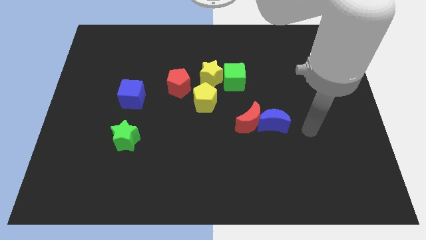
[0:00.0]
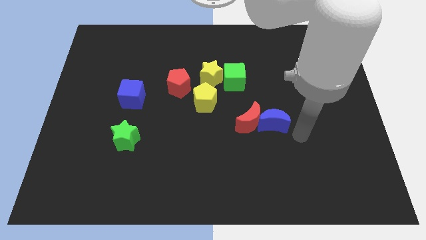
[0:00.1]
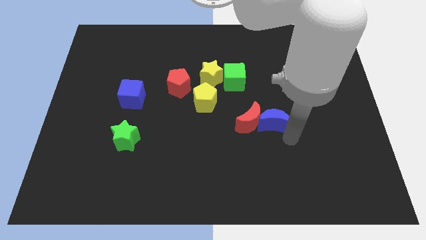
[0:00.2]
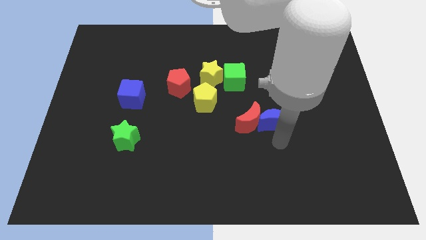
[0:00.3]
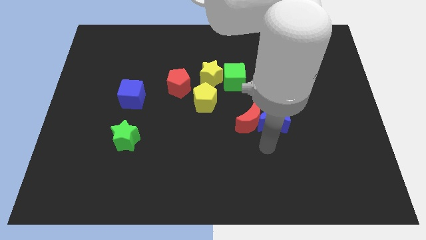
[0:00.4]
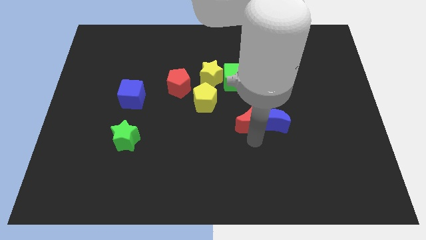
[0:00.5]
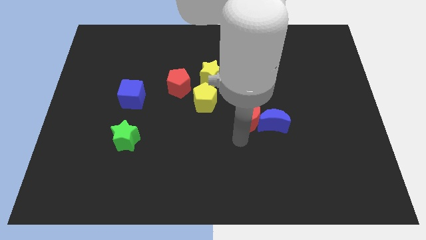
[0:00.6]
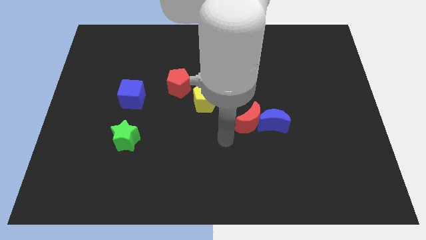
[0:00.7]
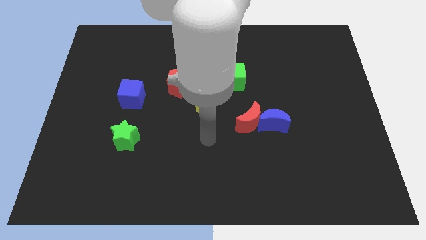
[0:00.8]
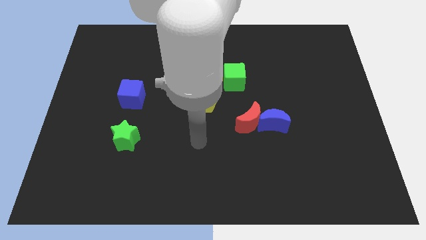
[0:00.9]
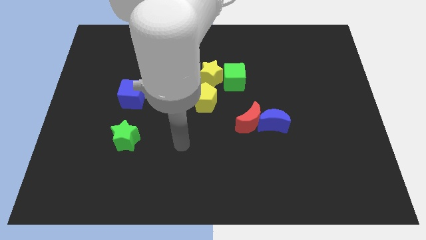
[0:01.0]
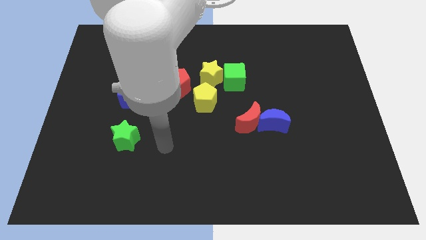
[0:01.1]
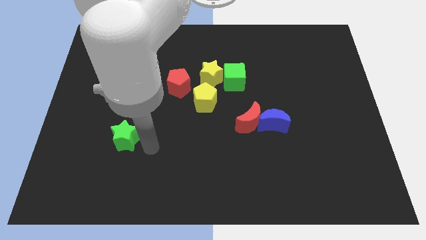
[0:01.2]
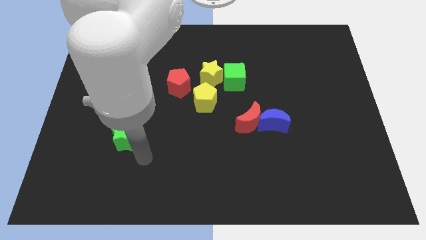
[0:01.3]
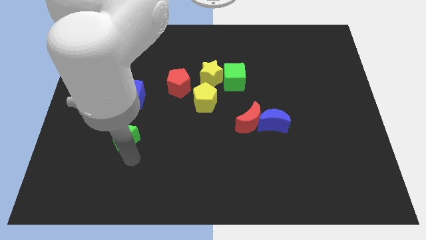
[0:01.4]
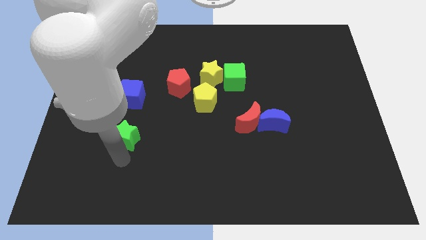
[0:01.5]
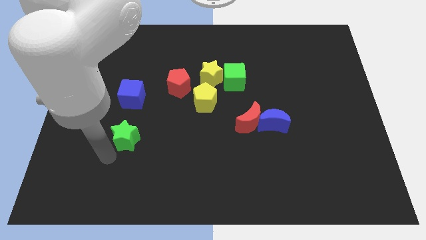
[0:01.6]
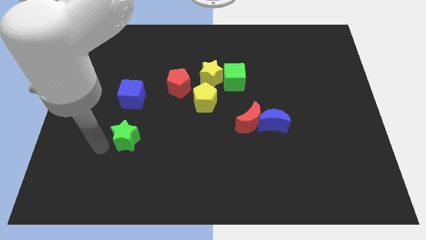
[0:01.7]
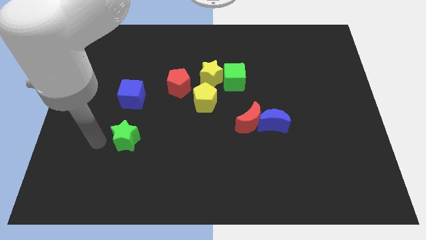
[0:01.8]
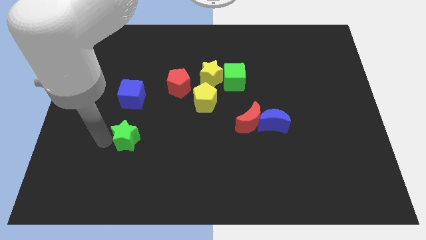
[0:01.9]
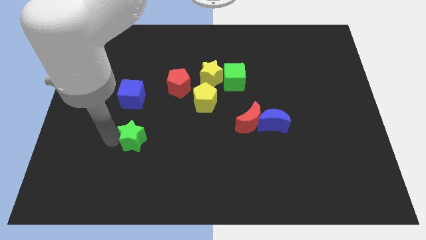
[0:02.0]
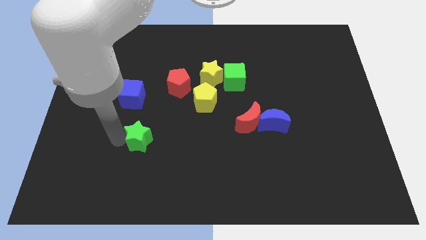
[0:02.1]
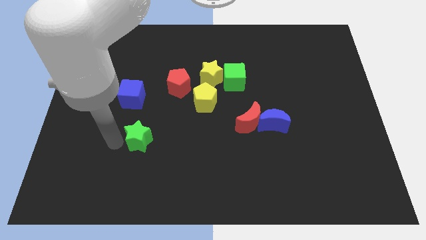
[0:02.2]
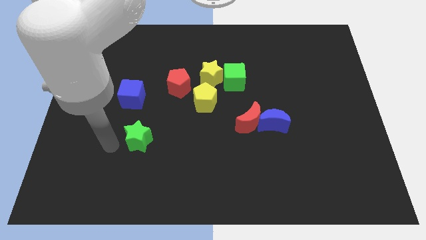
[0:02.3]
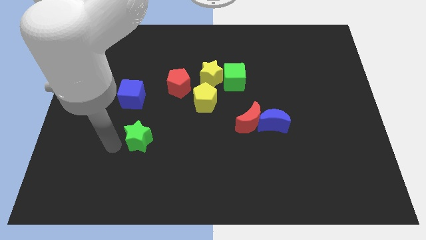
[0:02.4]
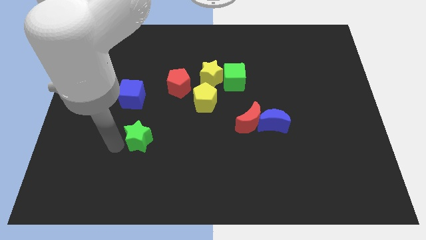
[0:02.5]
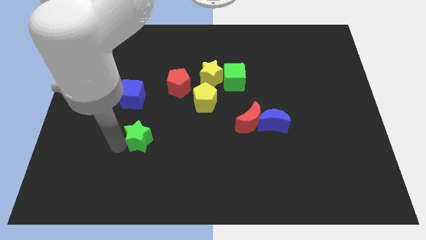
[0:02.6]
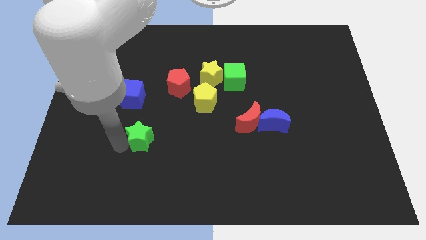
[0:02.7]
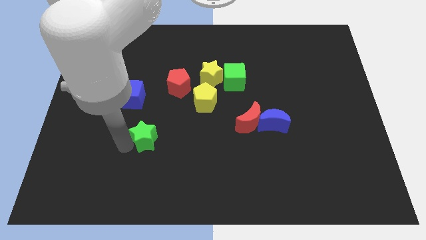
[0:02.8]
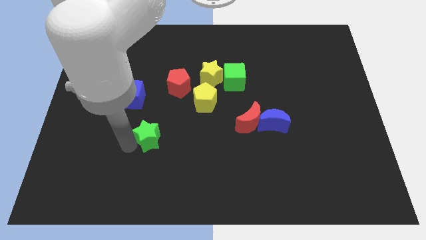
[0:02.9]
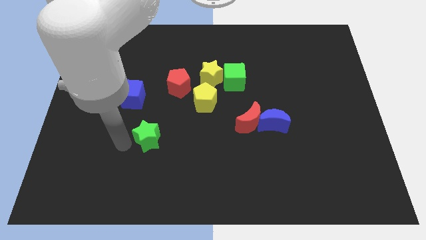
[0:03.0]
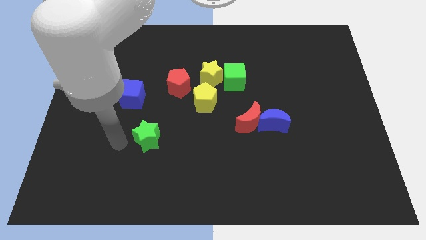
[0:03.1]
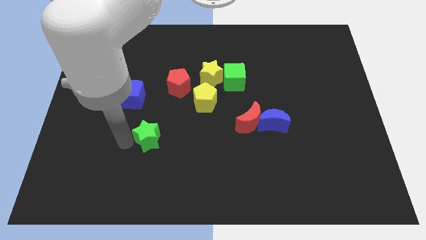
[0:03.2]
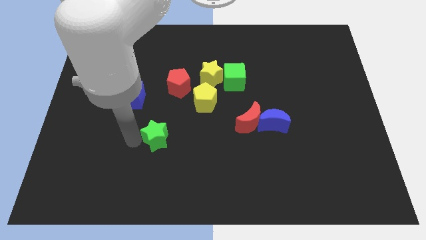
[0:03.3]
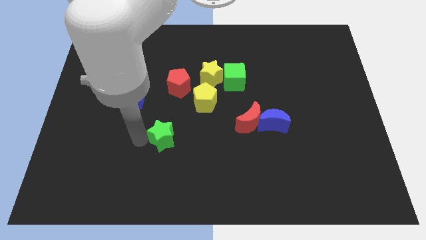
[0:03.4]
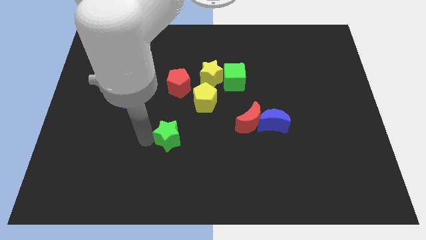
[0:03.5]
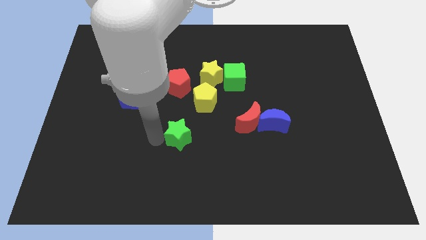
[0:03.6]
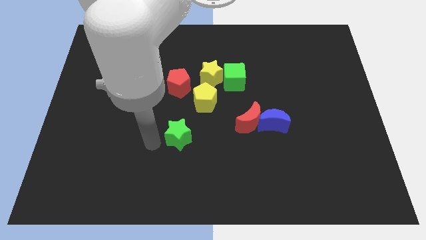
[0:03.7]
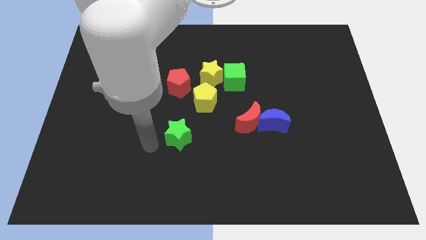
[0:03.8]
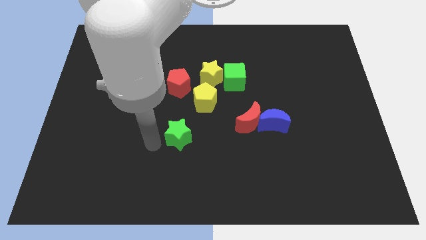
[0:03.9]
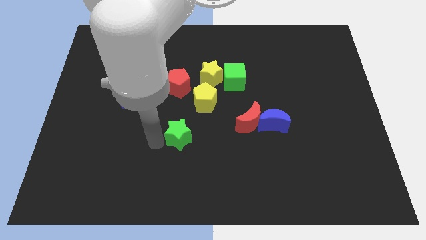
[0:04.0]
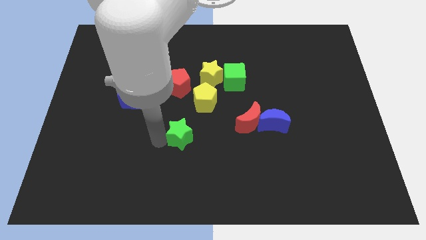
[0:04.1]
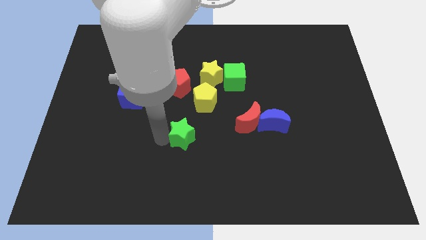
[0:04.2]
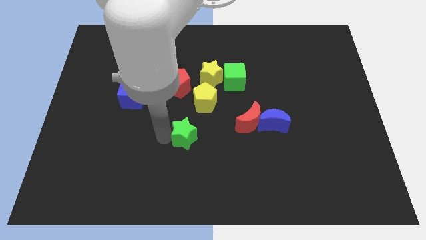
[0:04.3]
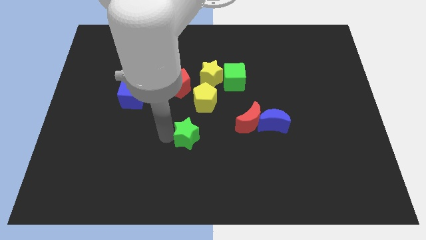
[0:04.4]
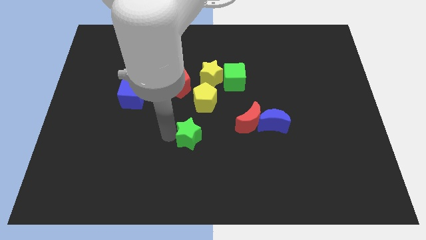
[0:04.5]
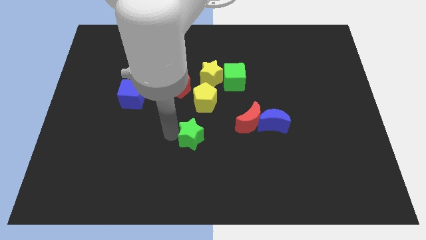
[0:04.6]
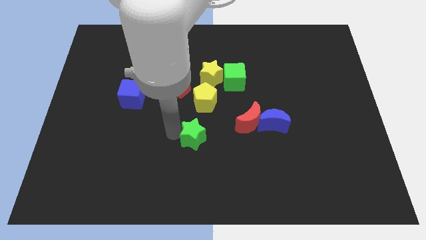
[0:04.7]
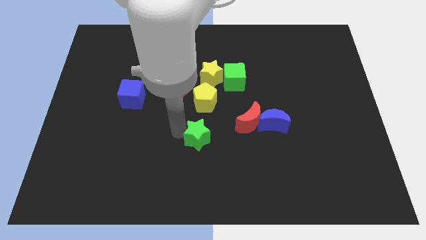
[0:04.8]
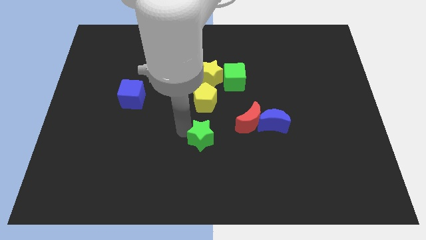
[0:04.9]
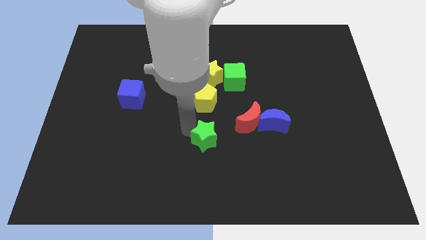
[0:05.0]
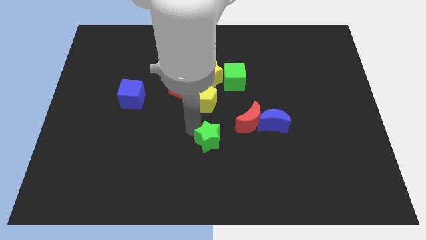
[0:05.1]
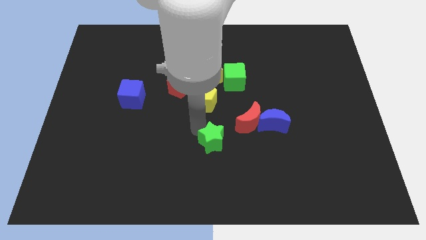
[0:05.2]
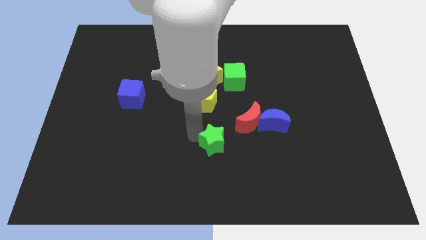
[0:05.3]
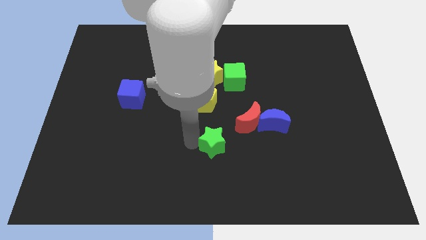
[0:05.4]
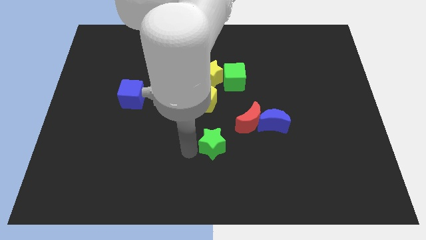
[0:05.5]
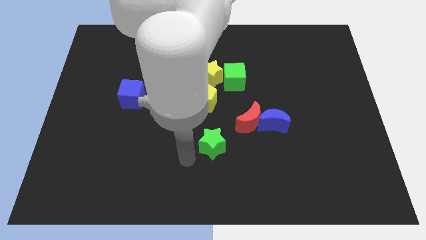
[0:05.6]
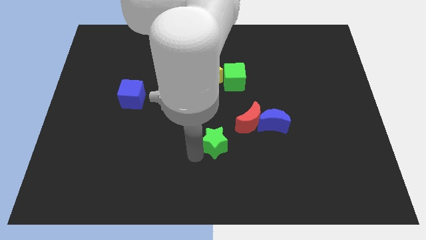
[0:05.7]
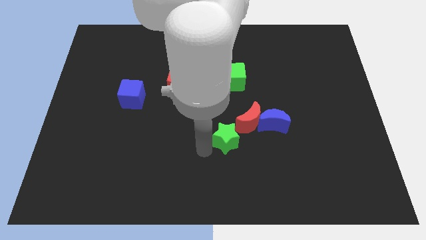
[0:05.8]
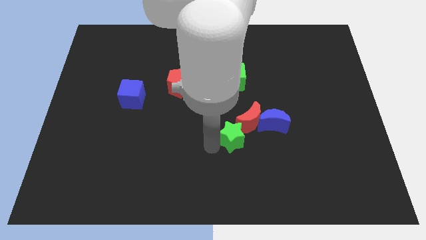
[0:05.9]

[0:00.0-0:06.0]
move the green star towards the red moon

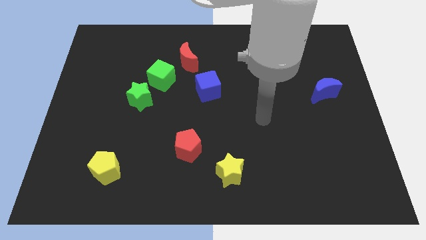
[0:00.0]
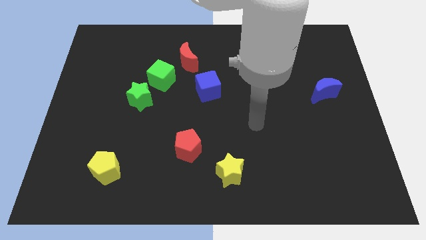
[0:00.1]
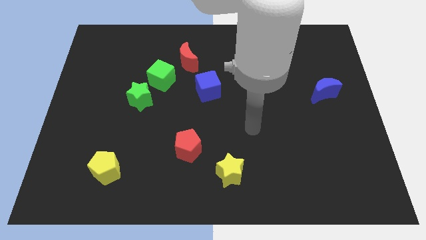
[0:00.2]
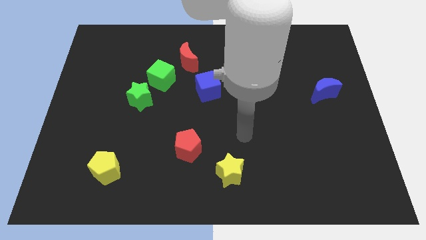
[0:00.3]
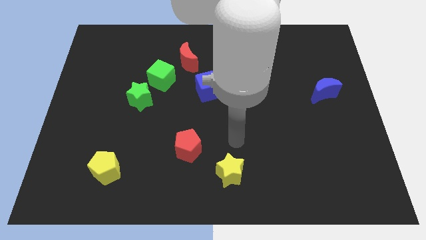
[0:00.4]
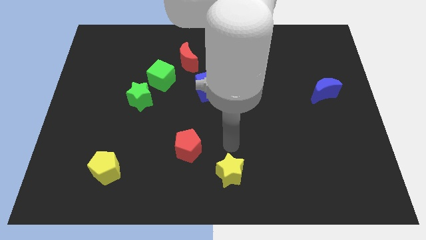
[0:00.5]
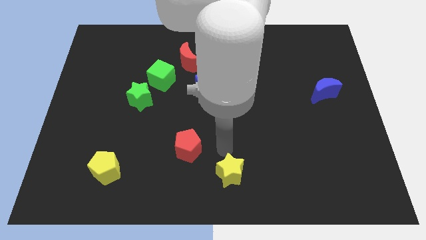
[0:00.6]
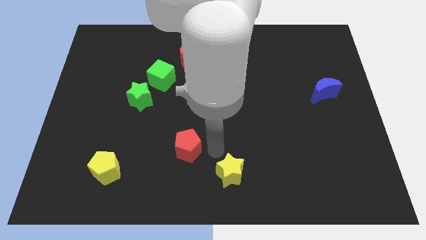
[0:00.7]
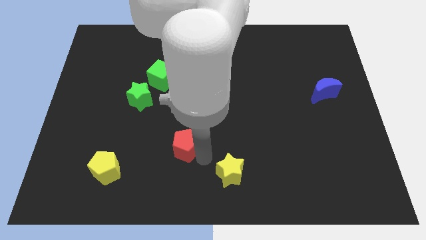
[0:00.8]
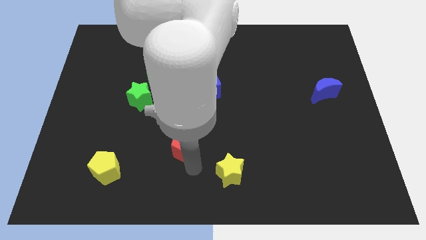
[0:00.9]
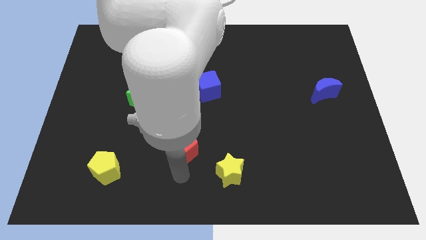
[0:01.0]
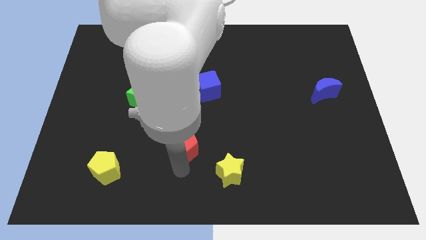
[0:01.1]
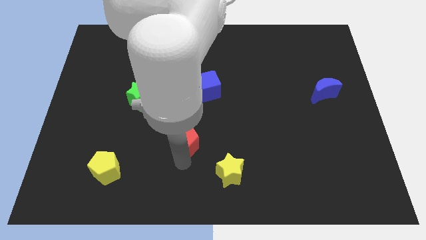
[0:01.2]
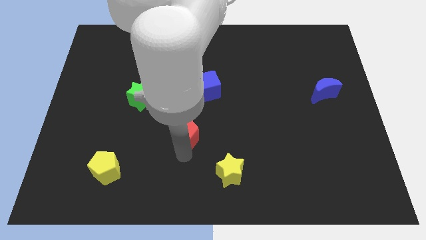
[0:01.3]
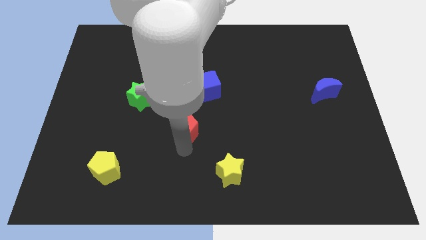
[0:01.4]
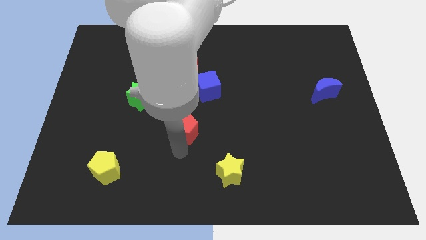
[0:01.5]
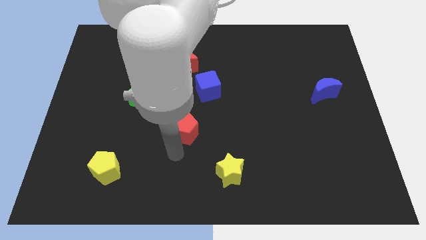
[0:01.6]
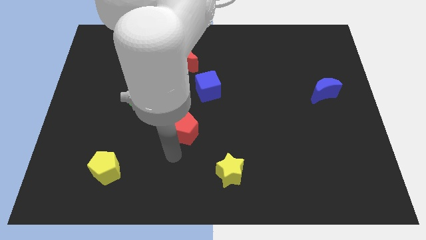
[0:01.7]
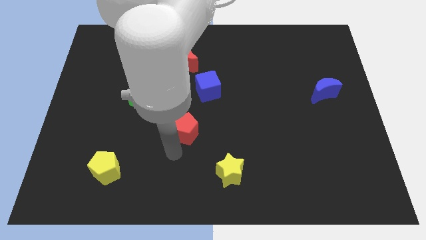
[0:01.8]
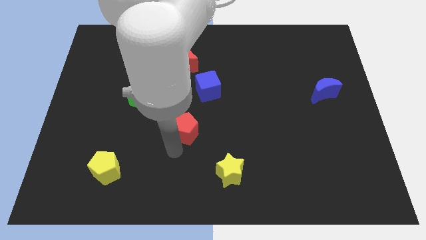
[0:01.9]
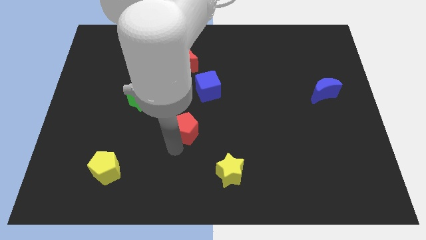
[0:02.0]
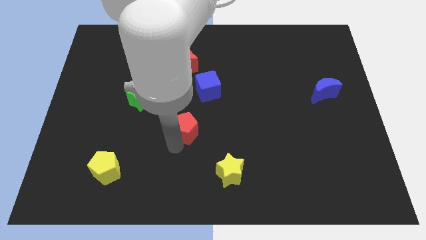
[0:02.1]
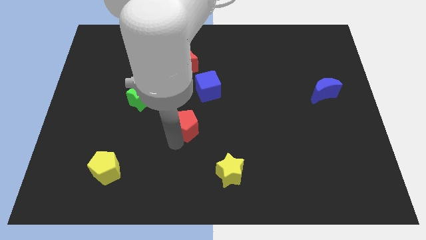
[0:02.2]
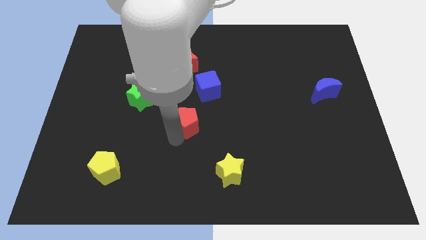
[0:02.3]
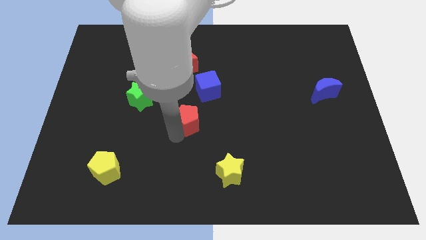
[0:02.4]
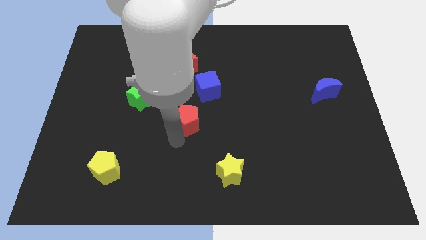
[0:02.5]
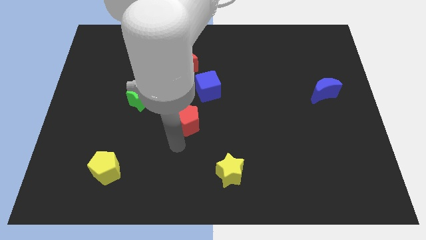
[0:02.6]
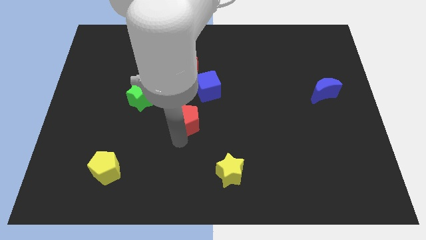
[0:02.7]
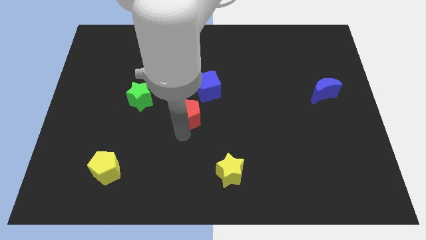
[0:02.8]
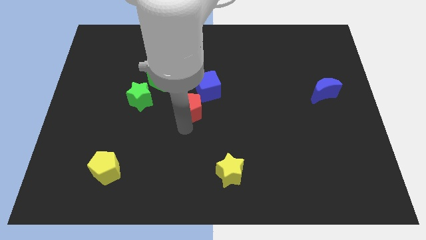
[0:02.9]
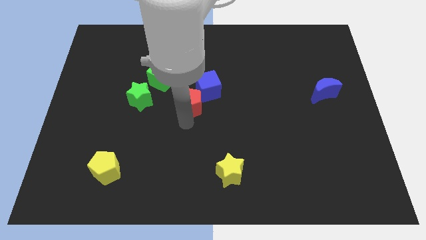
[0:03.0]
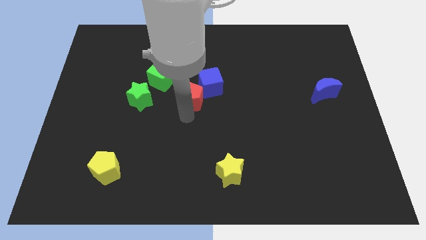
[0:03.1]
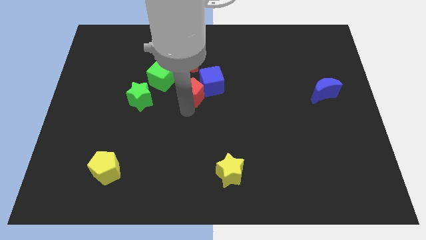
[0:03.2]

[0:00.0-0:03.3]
put the red pentagon to the blue cube
